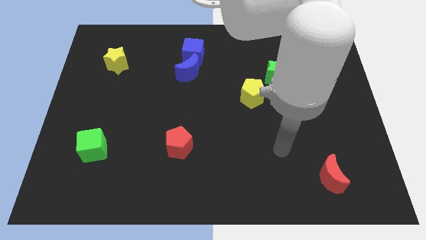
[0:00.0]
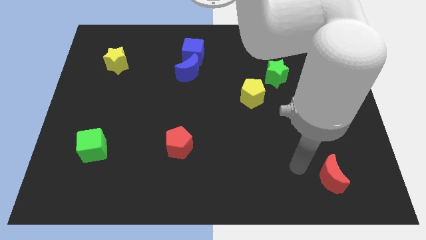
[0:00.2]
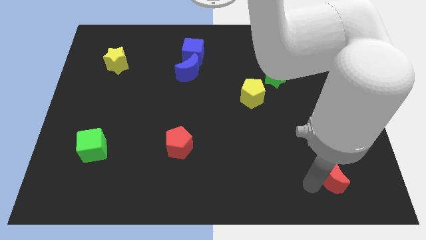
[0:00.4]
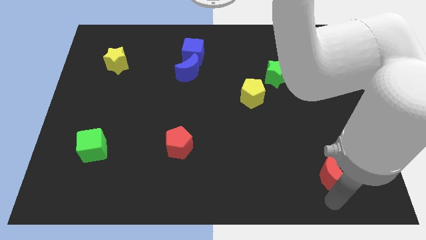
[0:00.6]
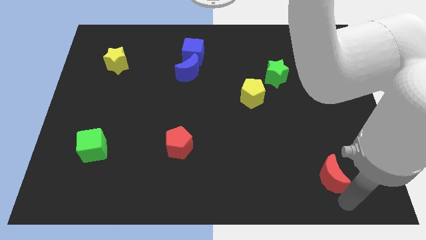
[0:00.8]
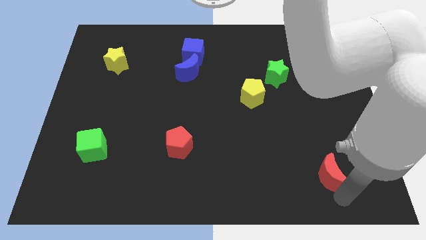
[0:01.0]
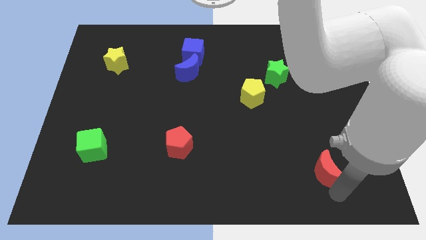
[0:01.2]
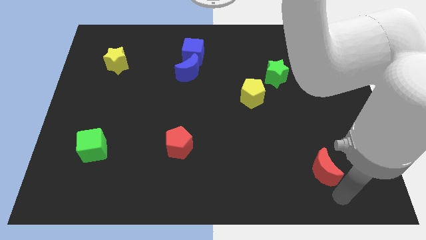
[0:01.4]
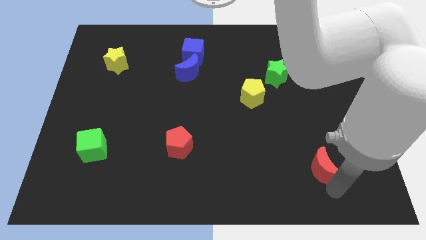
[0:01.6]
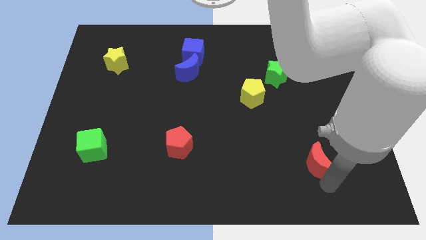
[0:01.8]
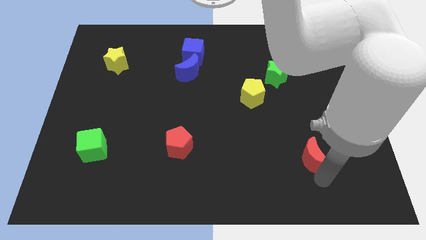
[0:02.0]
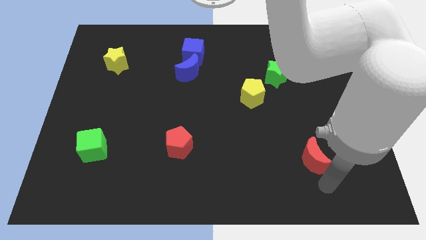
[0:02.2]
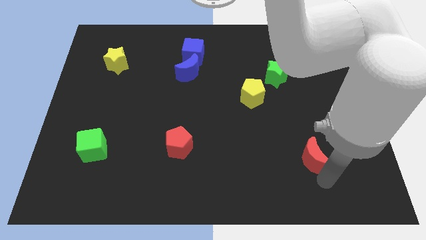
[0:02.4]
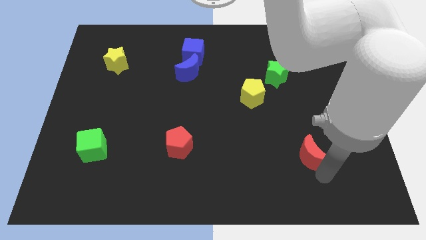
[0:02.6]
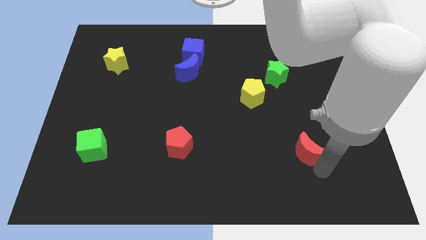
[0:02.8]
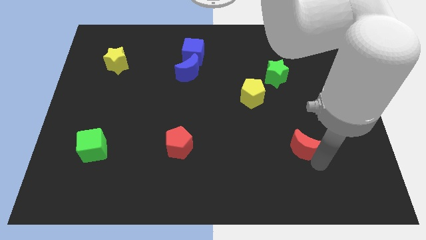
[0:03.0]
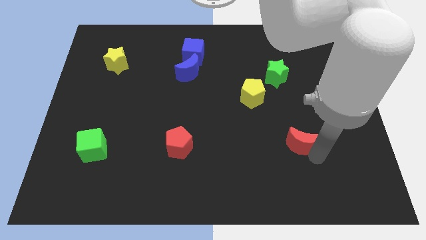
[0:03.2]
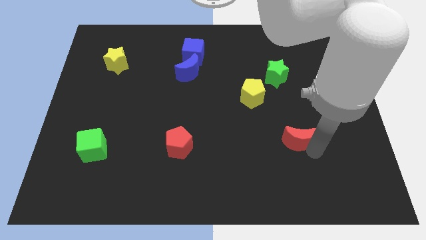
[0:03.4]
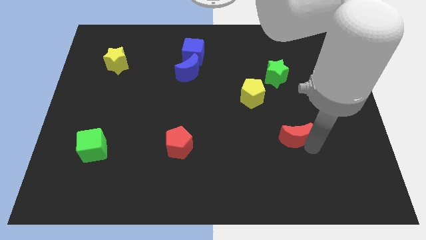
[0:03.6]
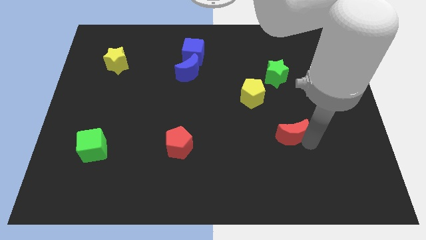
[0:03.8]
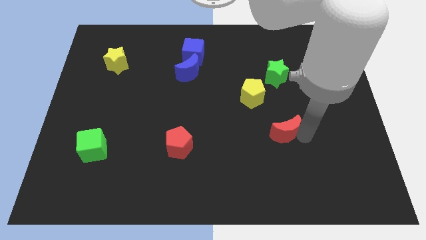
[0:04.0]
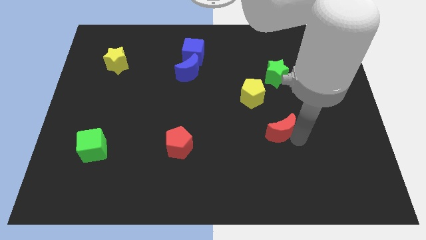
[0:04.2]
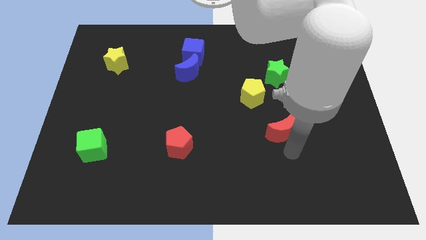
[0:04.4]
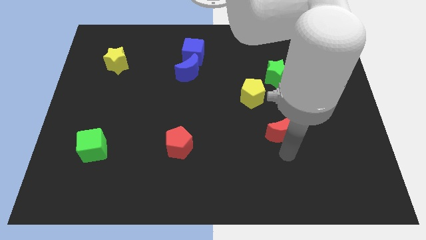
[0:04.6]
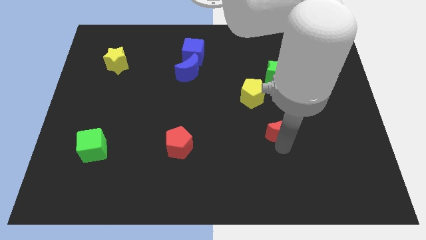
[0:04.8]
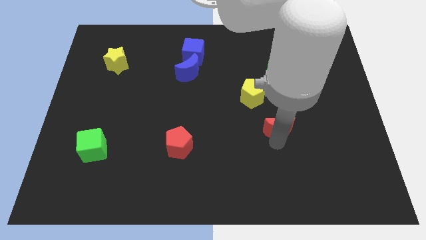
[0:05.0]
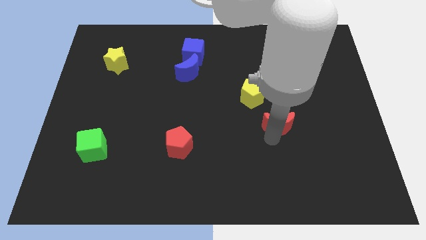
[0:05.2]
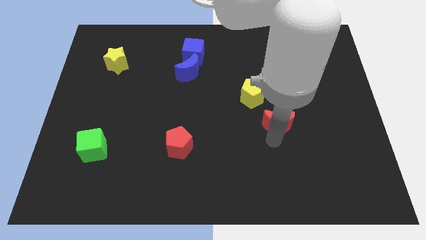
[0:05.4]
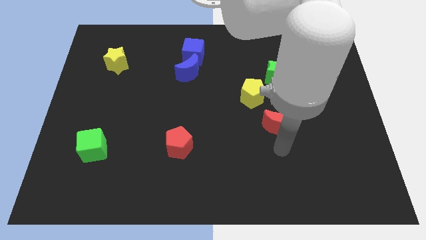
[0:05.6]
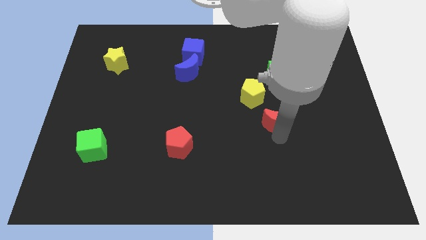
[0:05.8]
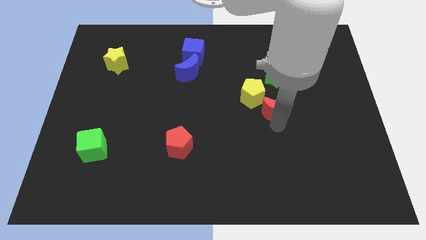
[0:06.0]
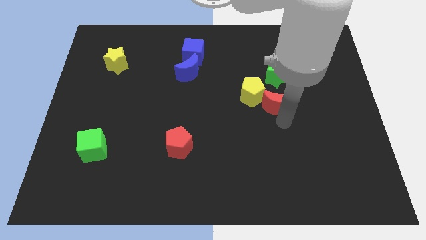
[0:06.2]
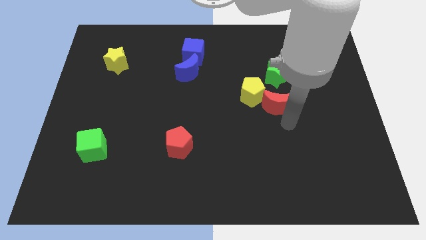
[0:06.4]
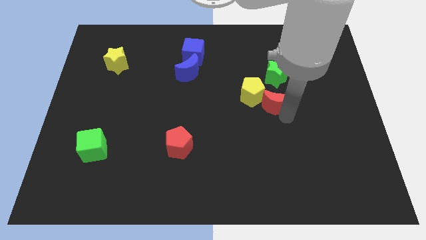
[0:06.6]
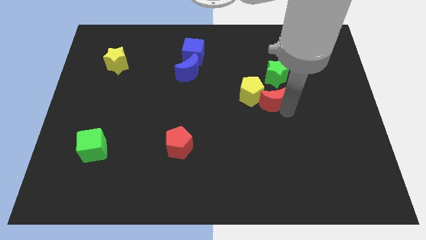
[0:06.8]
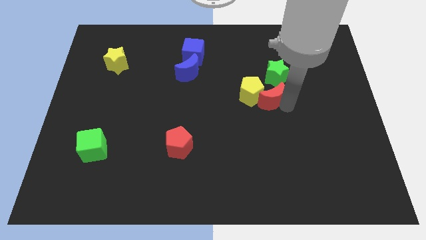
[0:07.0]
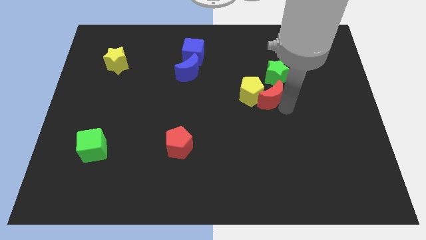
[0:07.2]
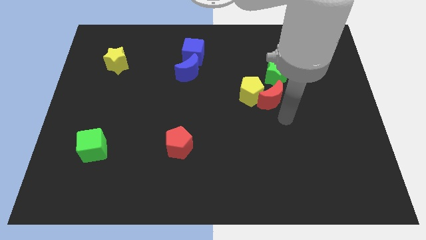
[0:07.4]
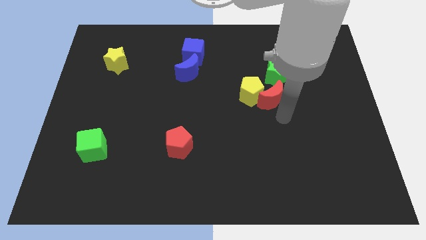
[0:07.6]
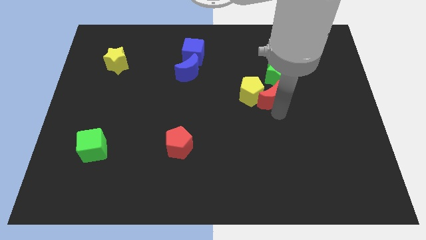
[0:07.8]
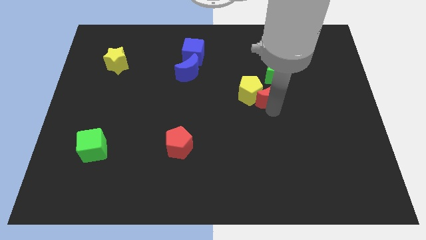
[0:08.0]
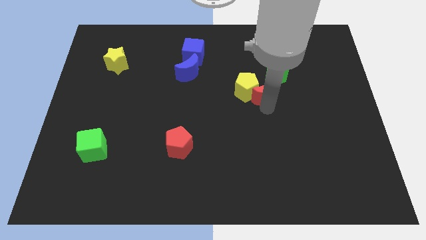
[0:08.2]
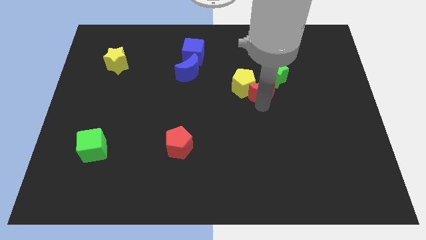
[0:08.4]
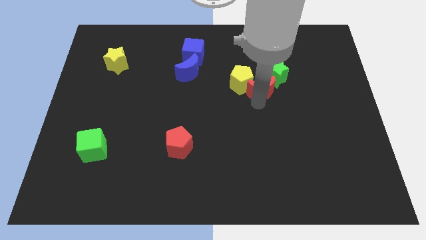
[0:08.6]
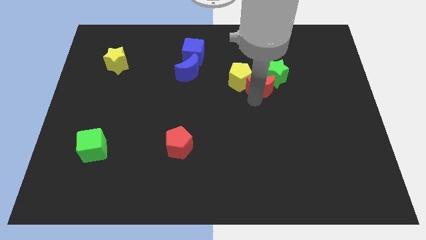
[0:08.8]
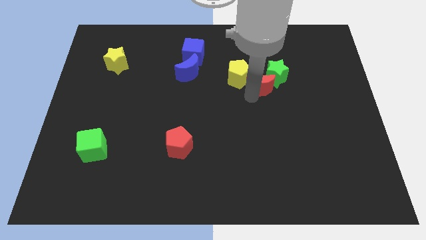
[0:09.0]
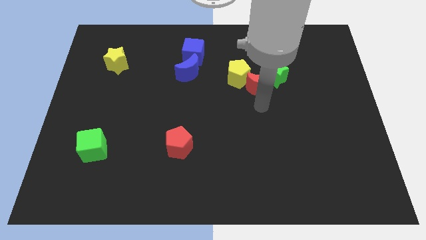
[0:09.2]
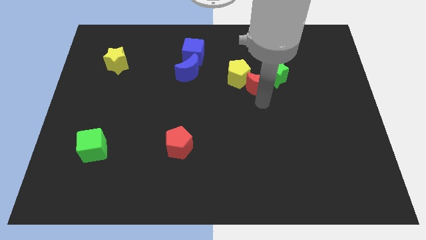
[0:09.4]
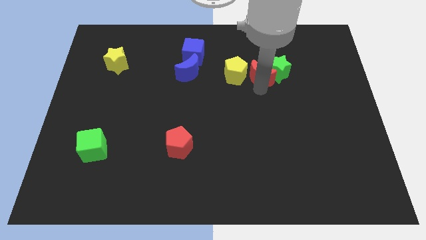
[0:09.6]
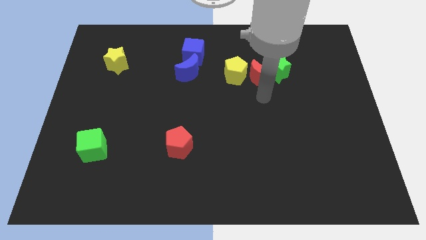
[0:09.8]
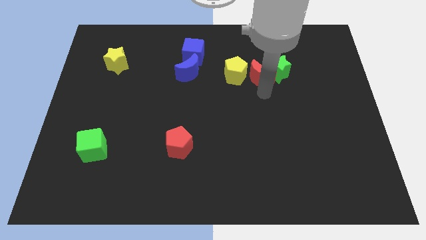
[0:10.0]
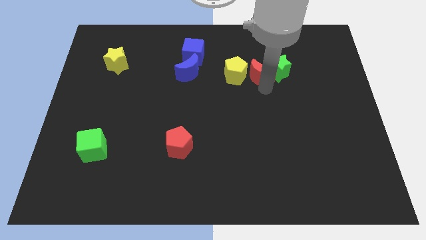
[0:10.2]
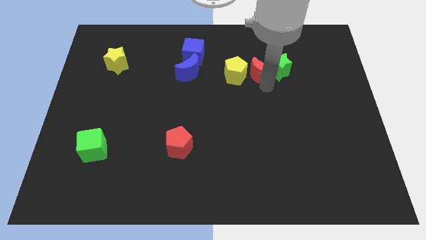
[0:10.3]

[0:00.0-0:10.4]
push the red moon diagonally up and to the left of the green star

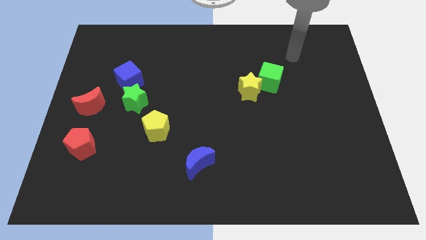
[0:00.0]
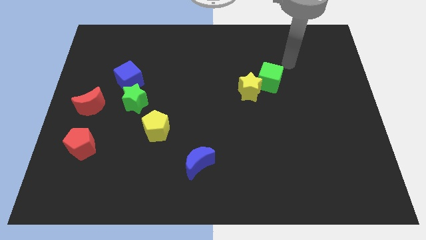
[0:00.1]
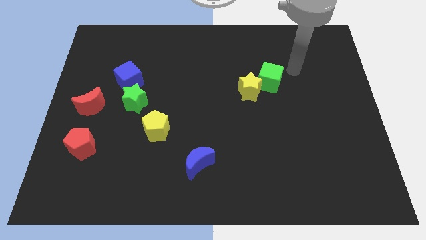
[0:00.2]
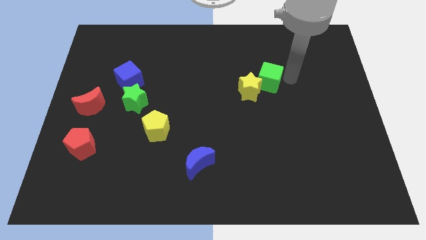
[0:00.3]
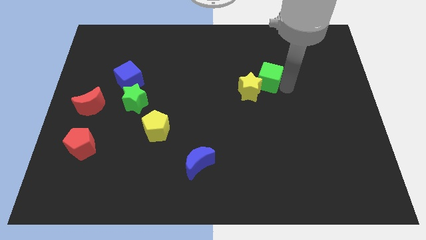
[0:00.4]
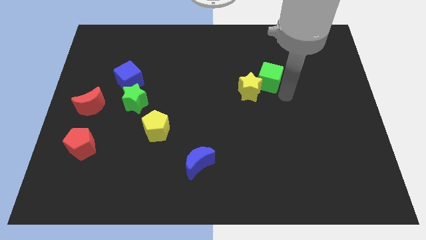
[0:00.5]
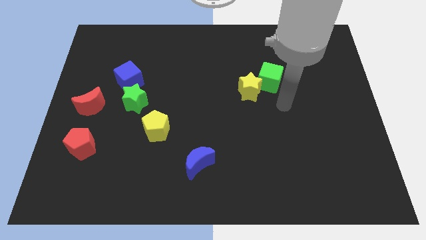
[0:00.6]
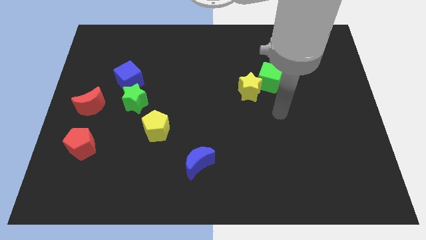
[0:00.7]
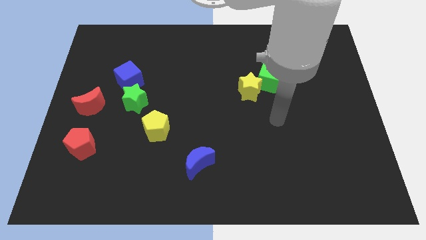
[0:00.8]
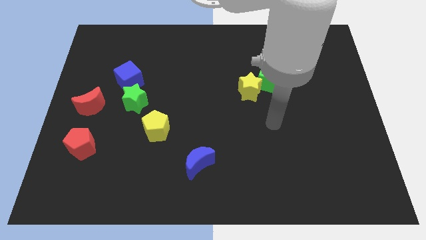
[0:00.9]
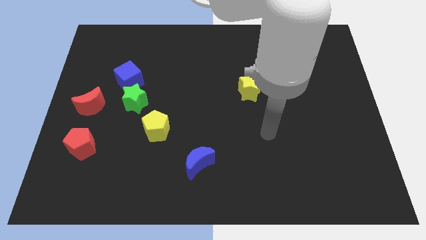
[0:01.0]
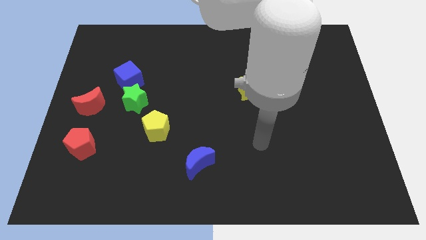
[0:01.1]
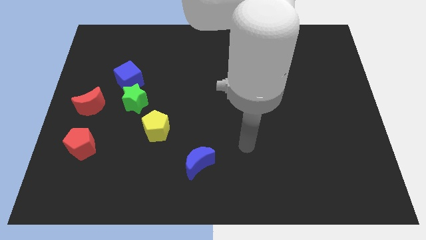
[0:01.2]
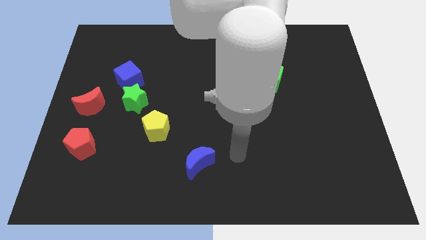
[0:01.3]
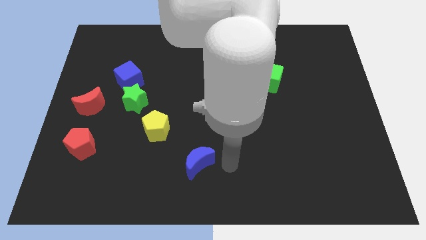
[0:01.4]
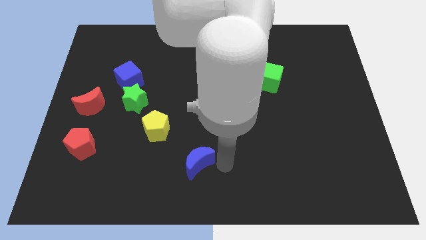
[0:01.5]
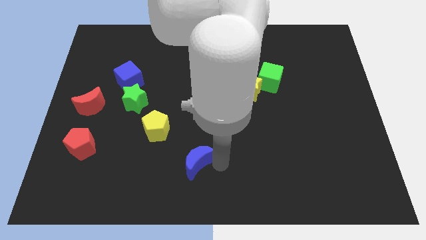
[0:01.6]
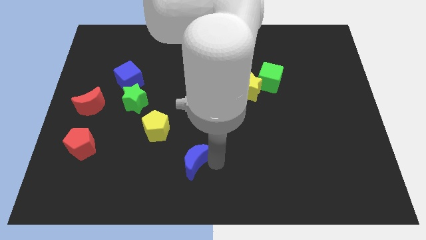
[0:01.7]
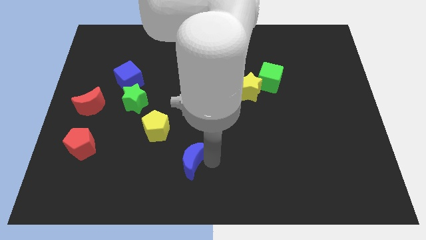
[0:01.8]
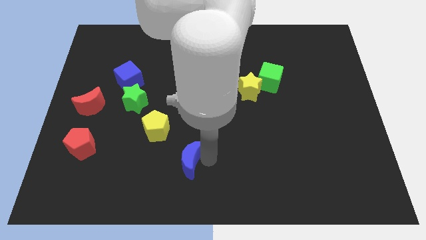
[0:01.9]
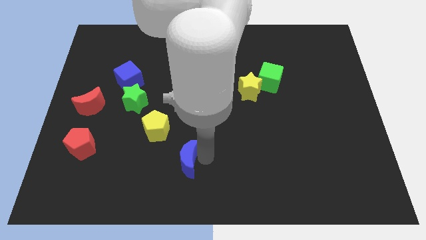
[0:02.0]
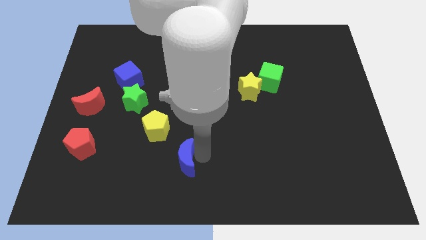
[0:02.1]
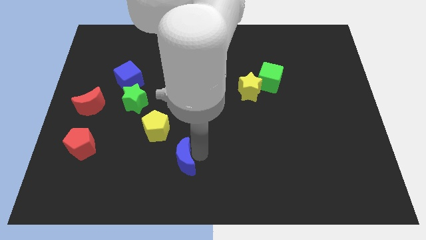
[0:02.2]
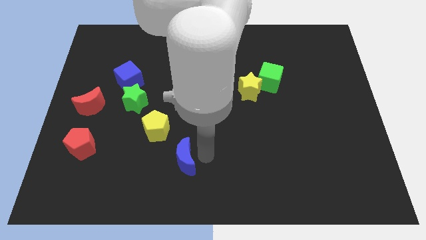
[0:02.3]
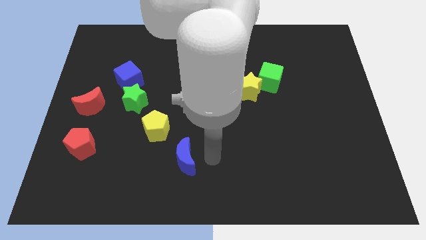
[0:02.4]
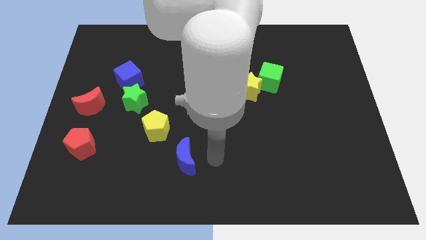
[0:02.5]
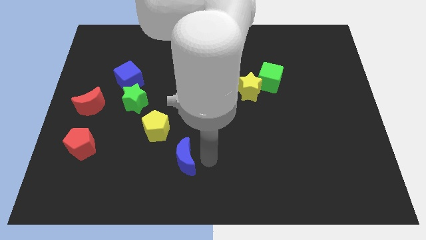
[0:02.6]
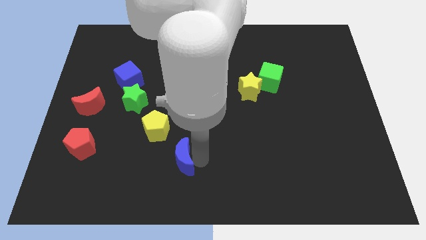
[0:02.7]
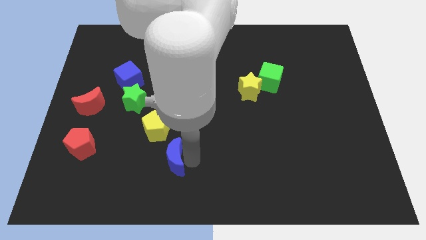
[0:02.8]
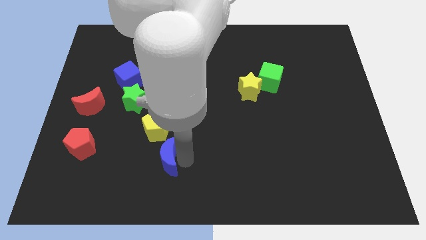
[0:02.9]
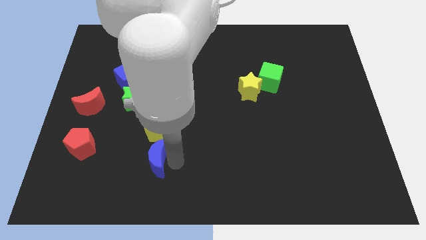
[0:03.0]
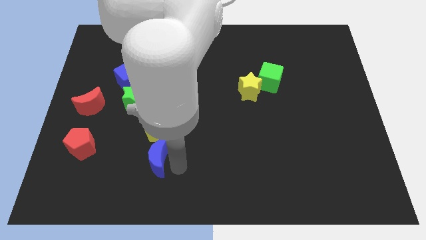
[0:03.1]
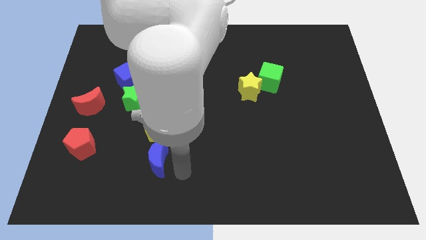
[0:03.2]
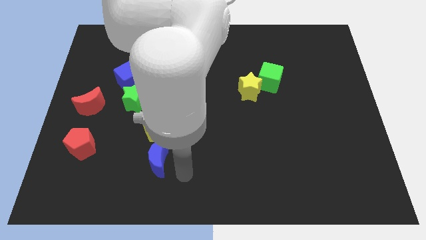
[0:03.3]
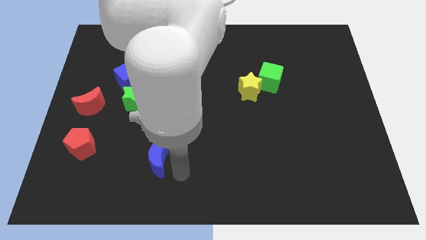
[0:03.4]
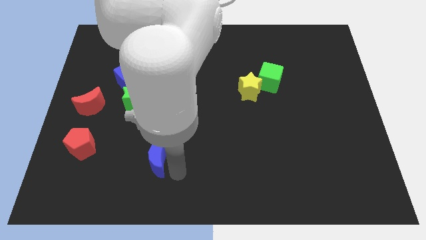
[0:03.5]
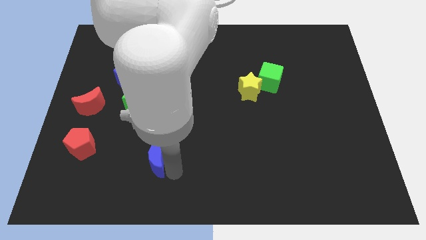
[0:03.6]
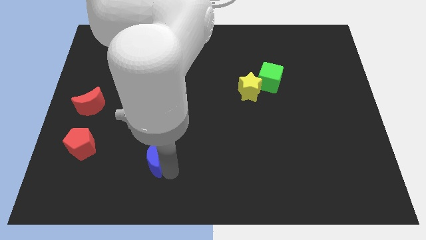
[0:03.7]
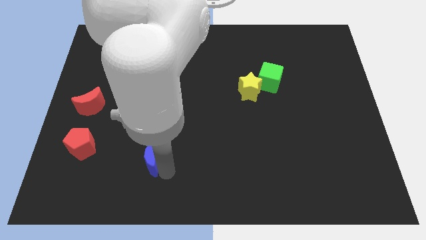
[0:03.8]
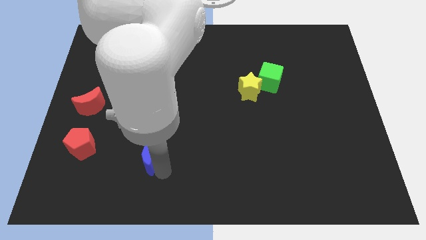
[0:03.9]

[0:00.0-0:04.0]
push the blue moon just right of the red pentagon
